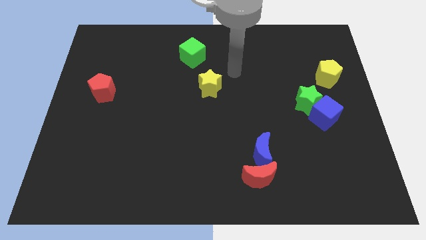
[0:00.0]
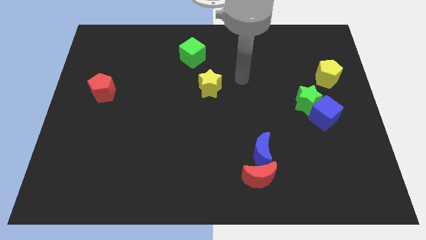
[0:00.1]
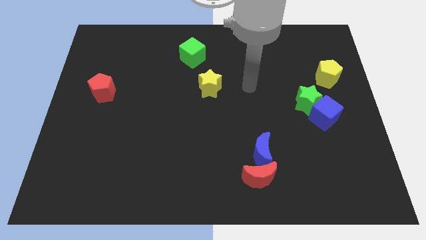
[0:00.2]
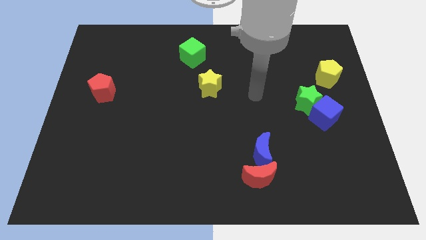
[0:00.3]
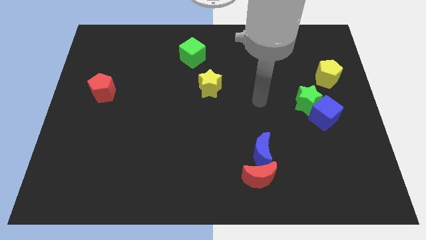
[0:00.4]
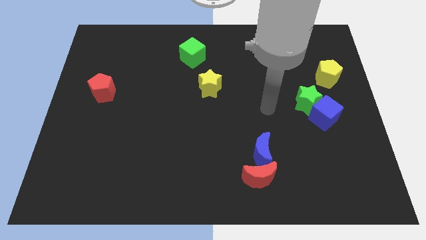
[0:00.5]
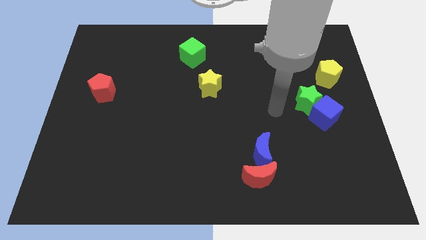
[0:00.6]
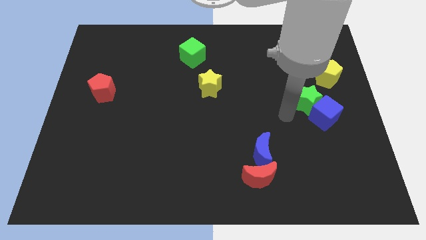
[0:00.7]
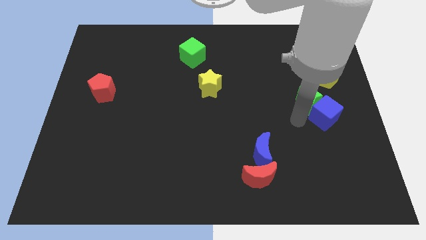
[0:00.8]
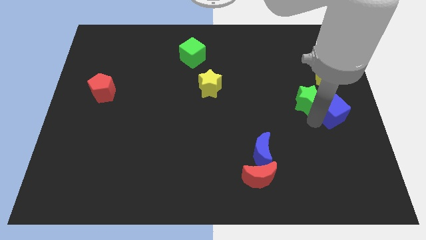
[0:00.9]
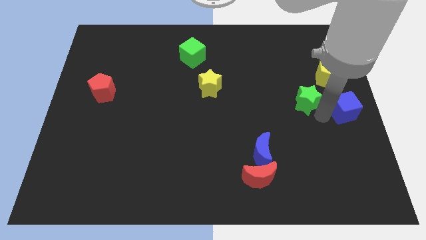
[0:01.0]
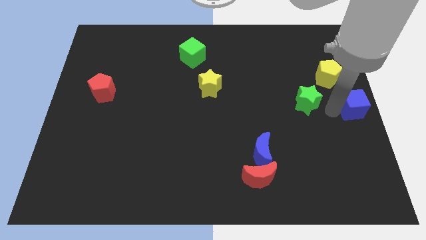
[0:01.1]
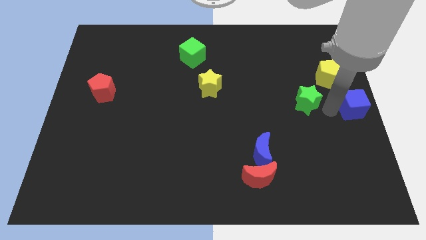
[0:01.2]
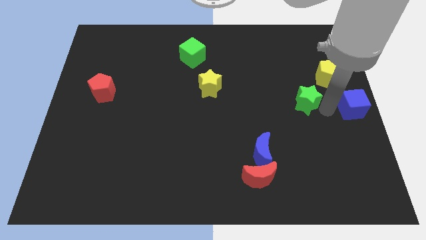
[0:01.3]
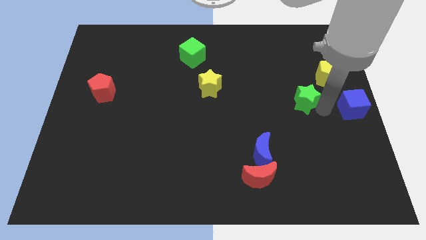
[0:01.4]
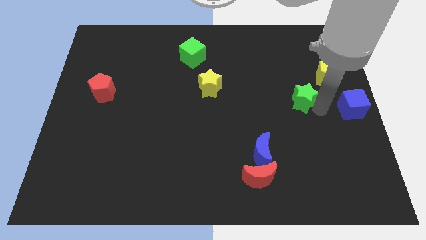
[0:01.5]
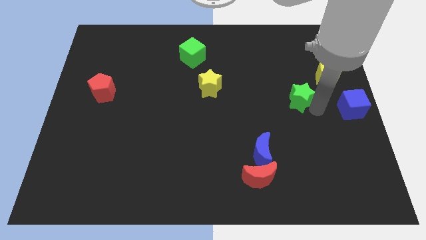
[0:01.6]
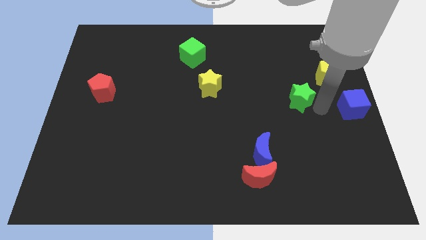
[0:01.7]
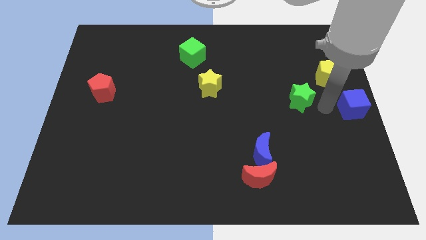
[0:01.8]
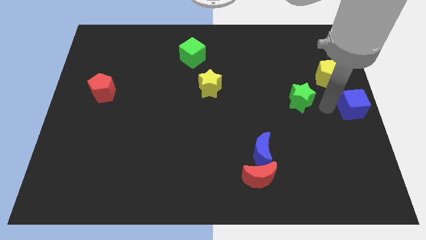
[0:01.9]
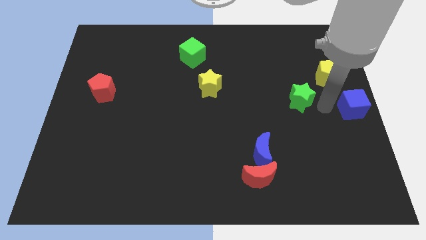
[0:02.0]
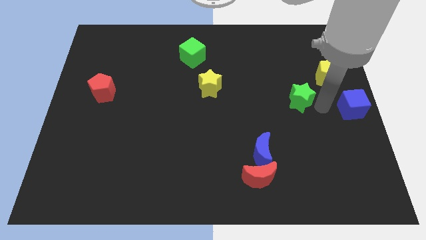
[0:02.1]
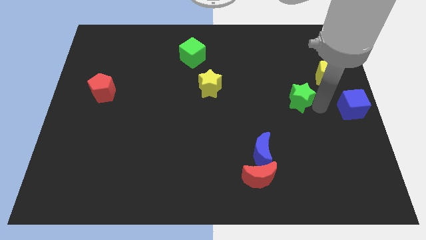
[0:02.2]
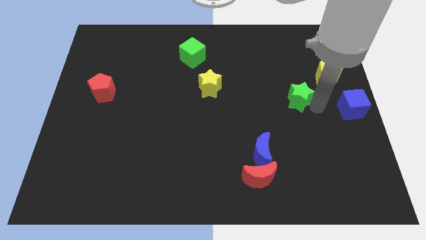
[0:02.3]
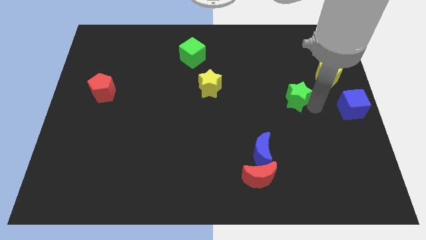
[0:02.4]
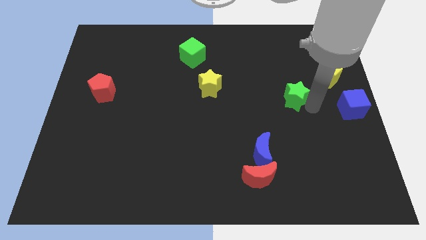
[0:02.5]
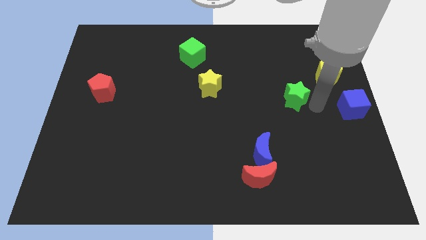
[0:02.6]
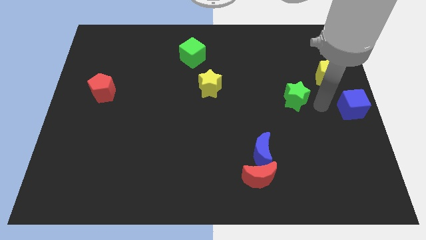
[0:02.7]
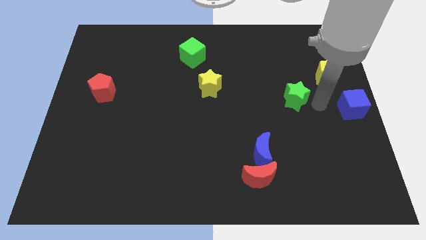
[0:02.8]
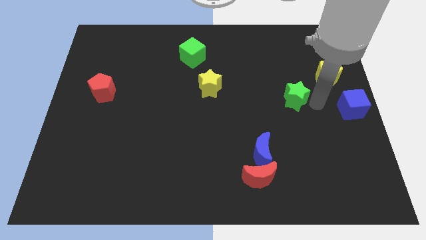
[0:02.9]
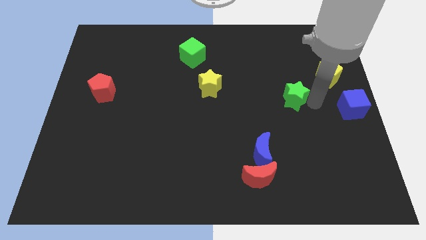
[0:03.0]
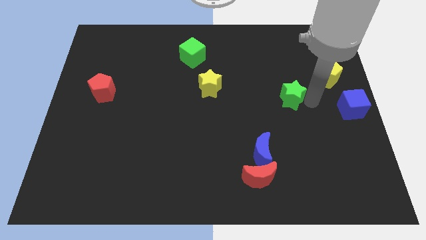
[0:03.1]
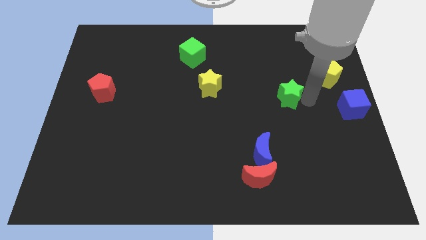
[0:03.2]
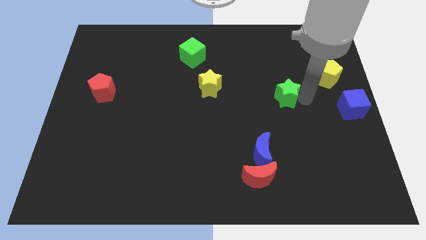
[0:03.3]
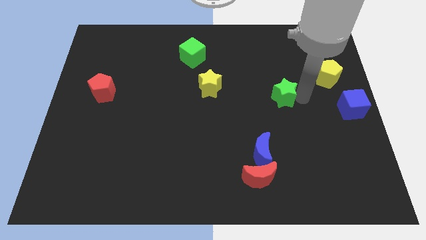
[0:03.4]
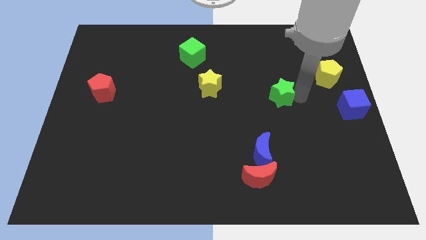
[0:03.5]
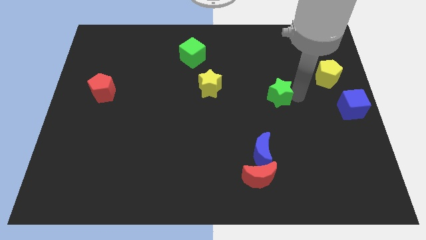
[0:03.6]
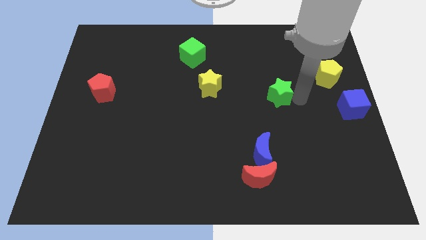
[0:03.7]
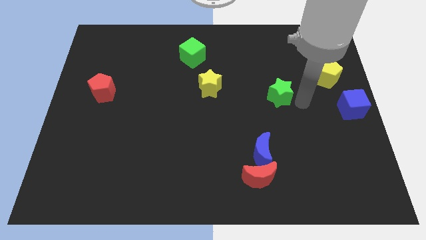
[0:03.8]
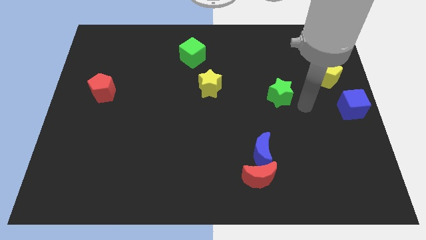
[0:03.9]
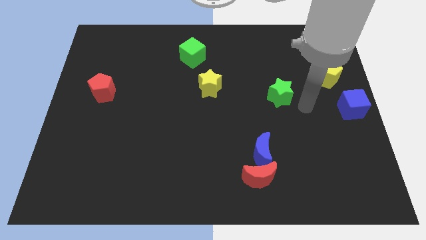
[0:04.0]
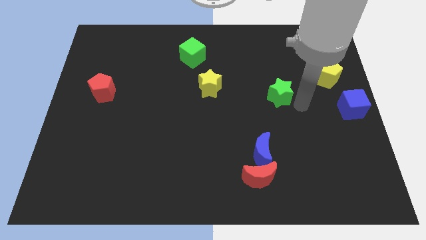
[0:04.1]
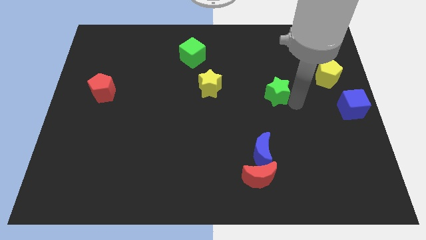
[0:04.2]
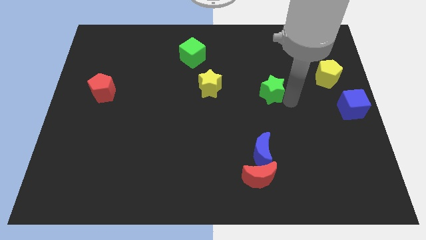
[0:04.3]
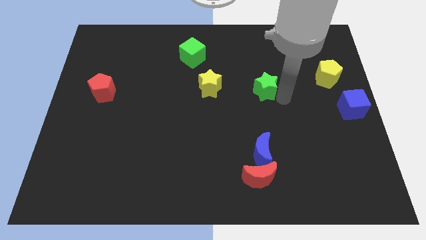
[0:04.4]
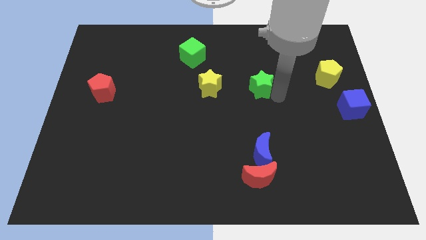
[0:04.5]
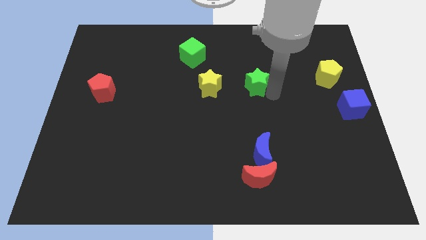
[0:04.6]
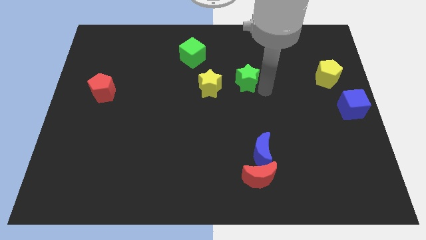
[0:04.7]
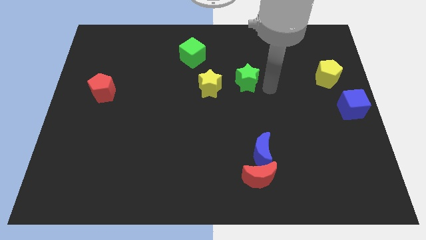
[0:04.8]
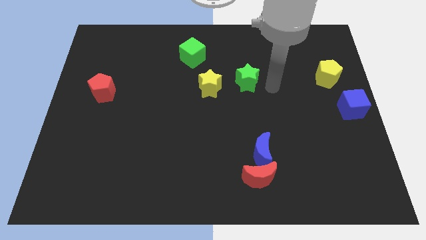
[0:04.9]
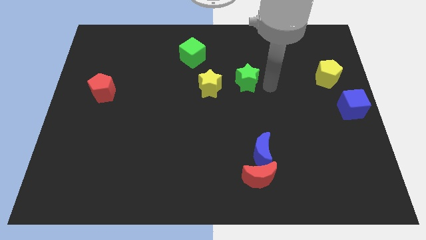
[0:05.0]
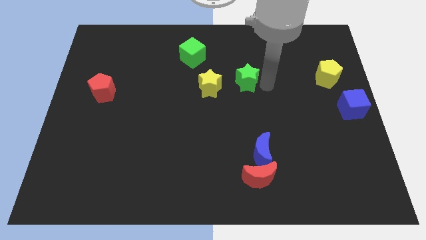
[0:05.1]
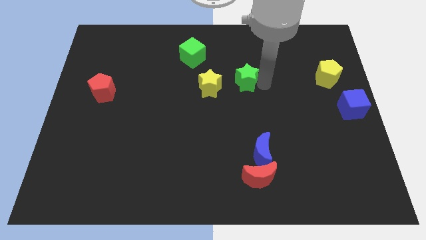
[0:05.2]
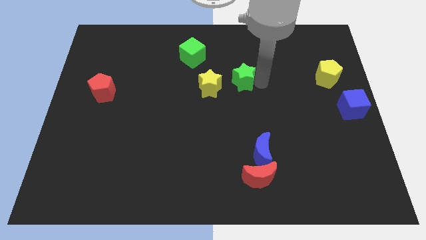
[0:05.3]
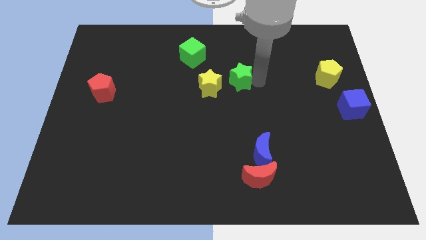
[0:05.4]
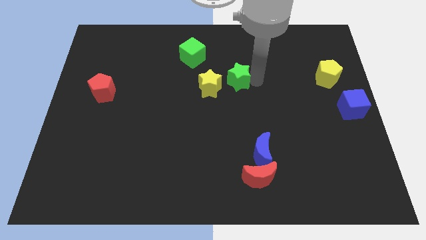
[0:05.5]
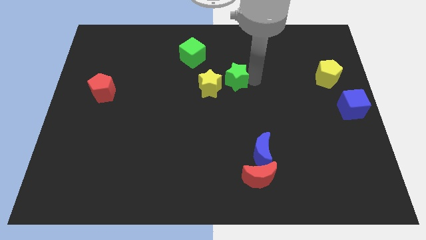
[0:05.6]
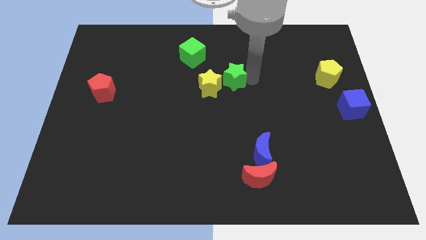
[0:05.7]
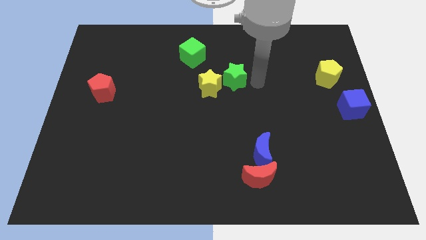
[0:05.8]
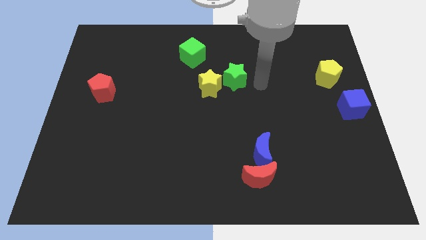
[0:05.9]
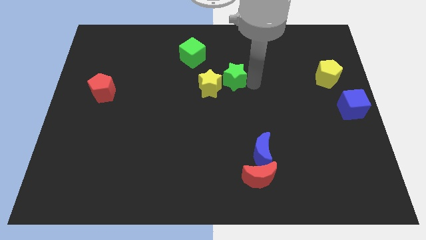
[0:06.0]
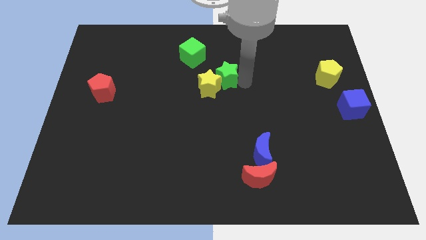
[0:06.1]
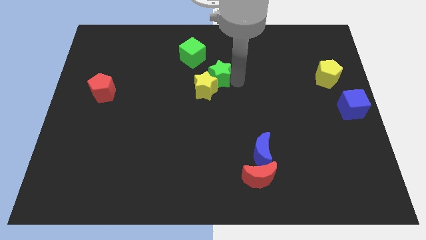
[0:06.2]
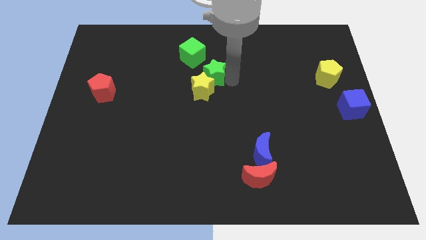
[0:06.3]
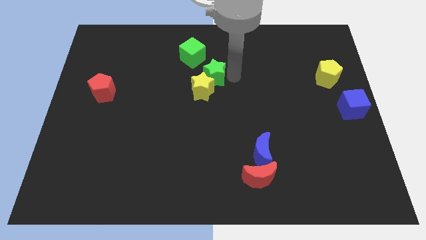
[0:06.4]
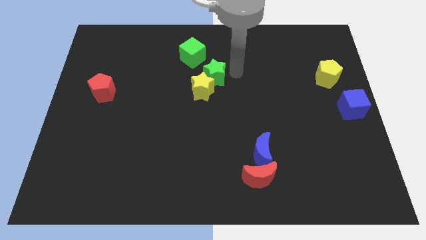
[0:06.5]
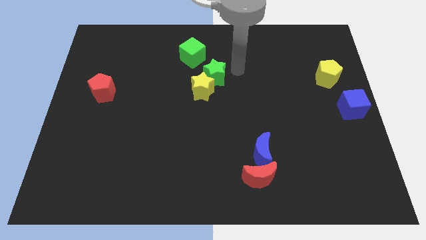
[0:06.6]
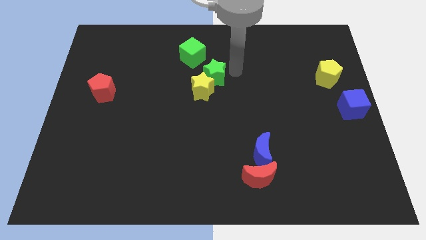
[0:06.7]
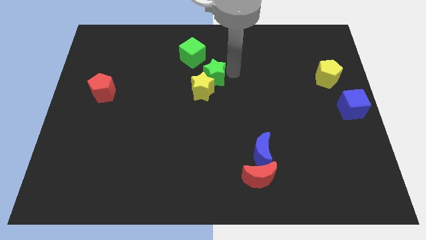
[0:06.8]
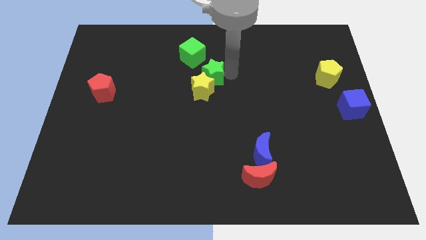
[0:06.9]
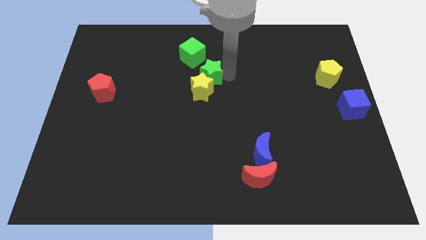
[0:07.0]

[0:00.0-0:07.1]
put the green star to the bottom side of the green cube
